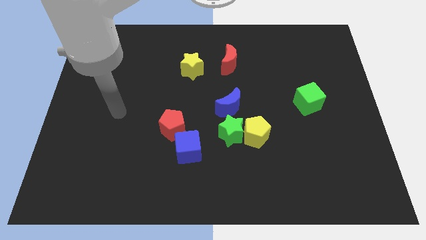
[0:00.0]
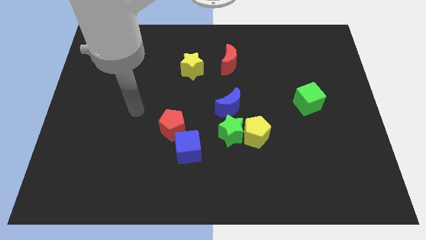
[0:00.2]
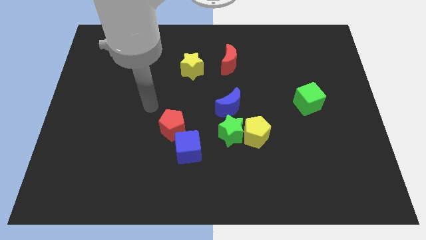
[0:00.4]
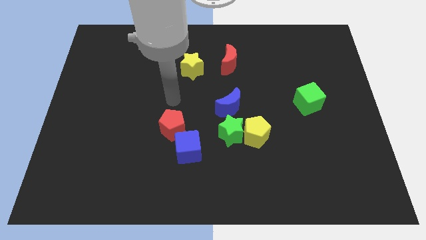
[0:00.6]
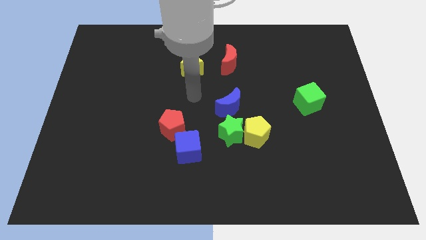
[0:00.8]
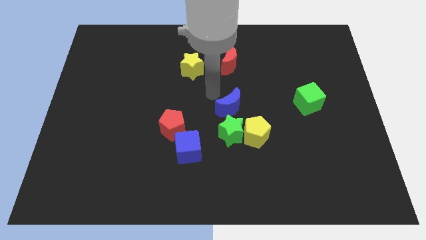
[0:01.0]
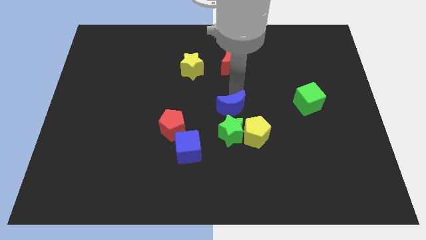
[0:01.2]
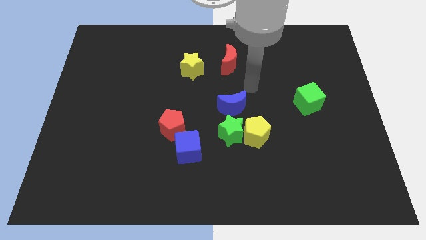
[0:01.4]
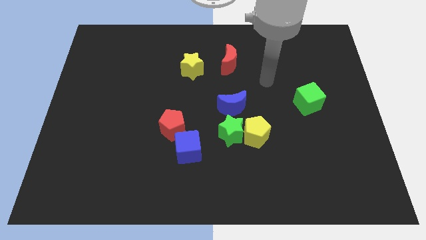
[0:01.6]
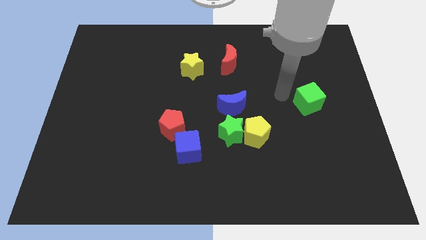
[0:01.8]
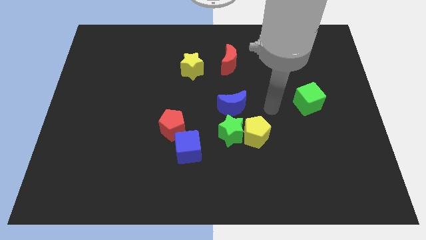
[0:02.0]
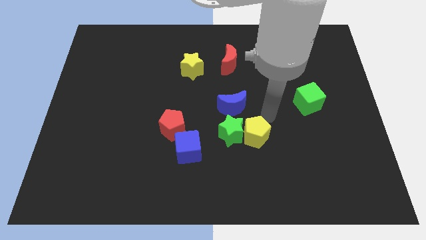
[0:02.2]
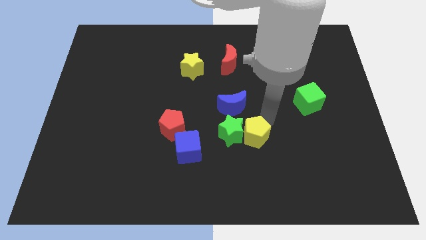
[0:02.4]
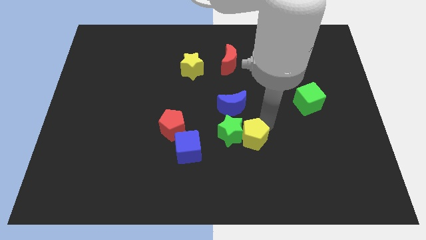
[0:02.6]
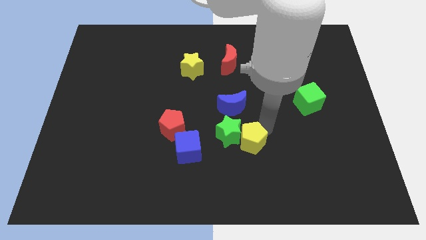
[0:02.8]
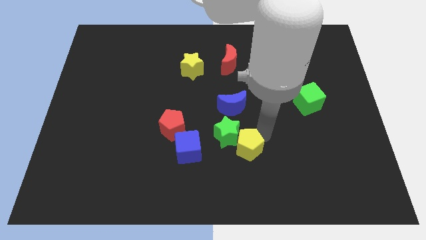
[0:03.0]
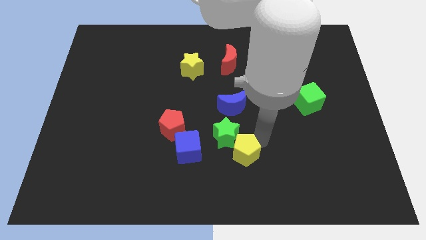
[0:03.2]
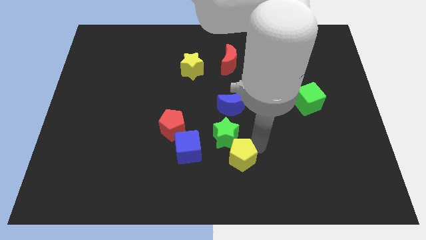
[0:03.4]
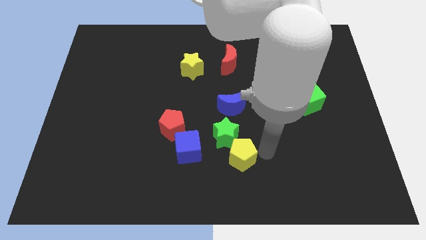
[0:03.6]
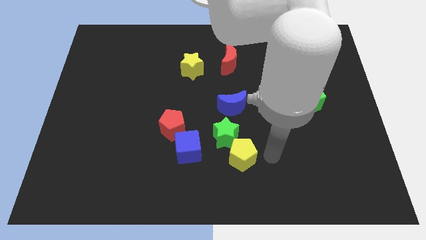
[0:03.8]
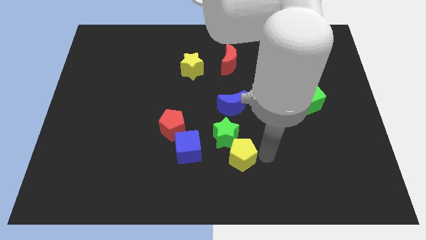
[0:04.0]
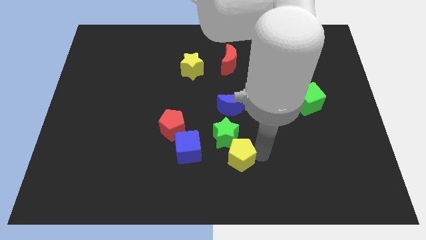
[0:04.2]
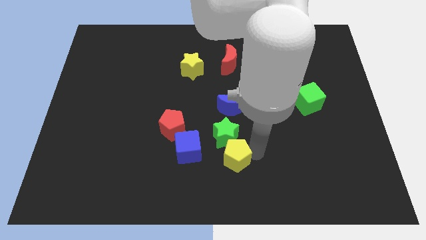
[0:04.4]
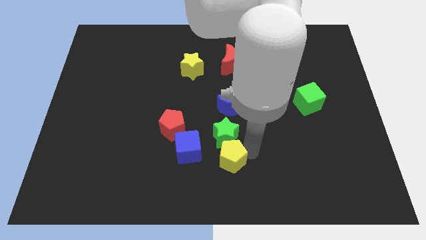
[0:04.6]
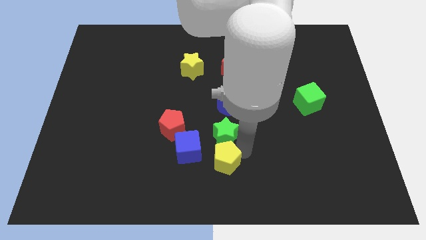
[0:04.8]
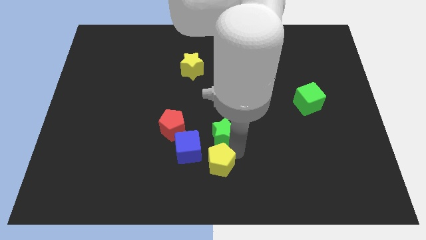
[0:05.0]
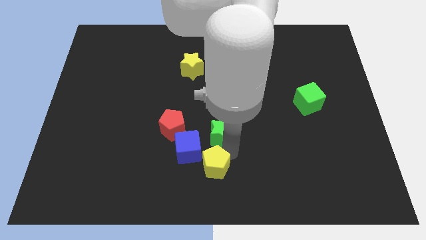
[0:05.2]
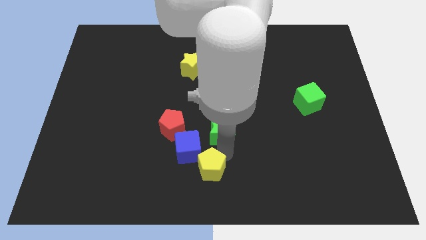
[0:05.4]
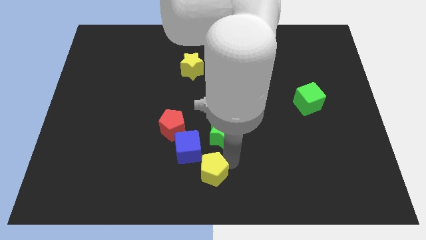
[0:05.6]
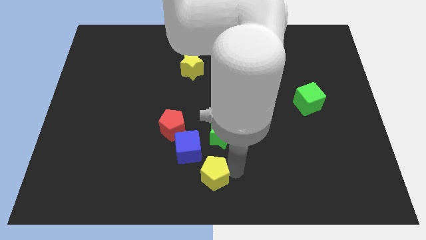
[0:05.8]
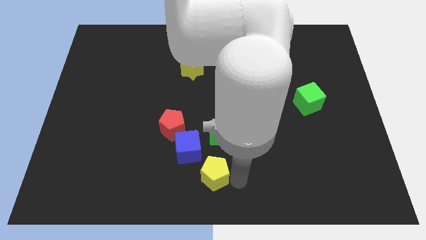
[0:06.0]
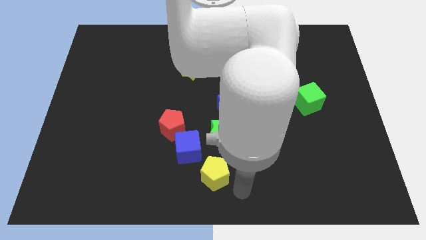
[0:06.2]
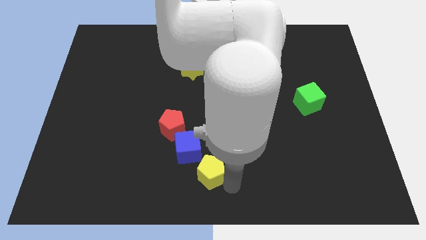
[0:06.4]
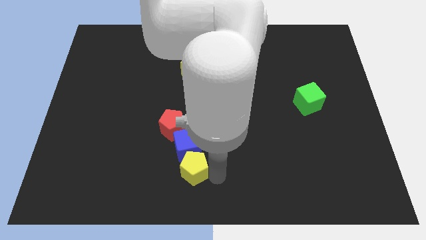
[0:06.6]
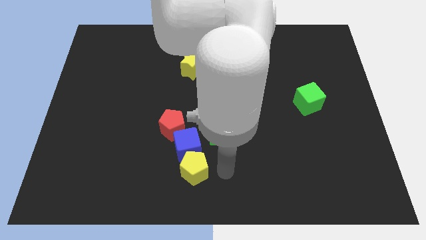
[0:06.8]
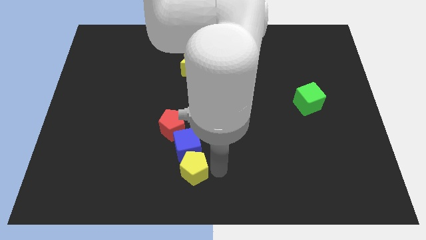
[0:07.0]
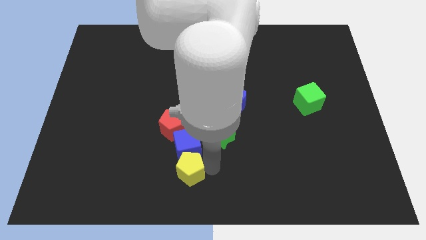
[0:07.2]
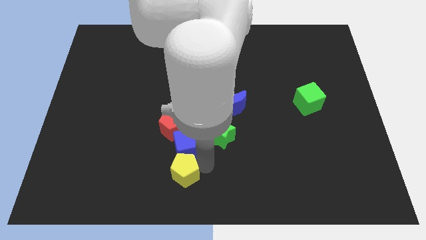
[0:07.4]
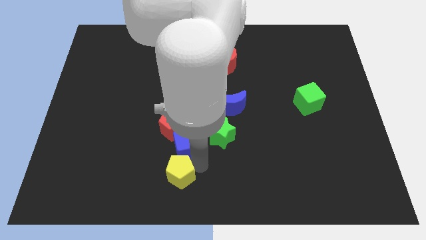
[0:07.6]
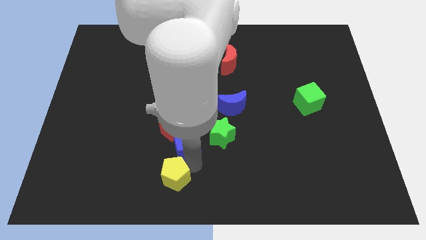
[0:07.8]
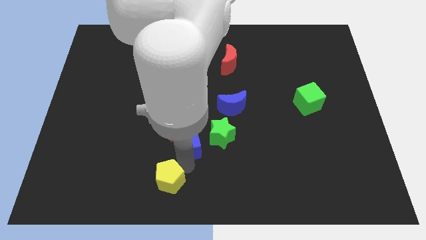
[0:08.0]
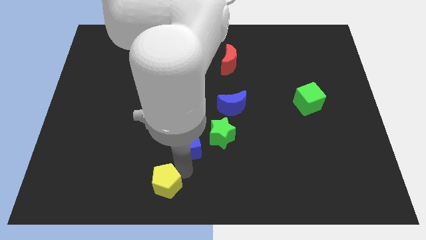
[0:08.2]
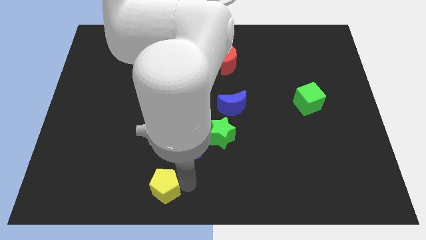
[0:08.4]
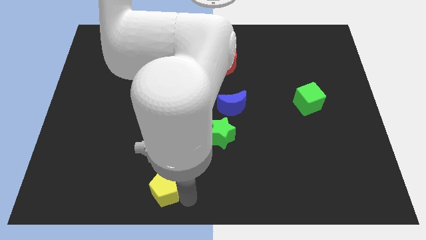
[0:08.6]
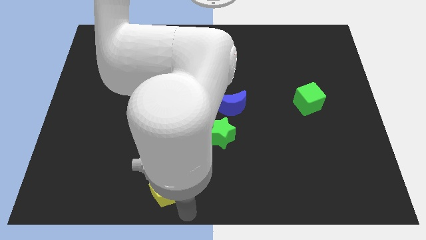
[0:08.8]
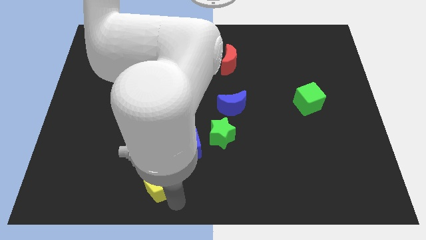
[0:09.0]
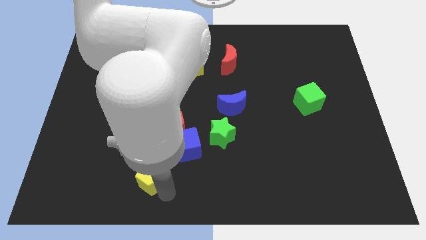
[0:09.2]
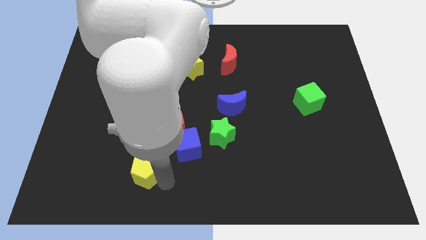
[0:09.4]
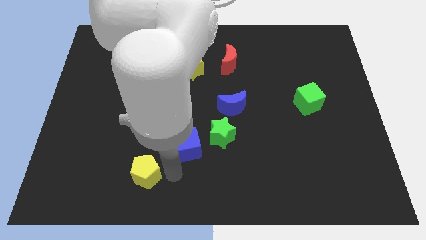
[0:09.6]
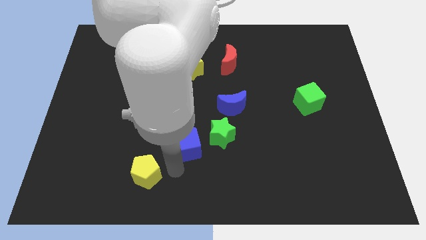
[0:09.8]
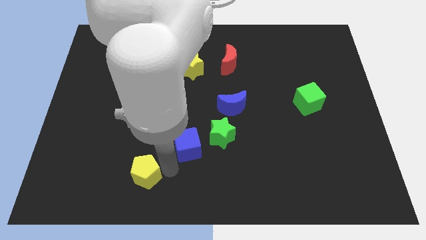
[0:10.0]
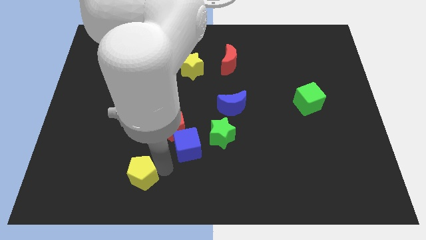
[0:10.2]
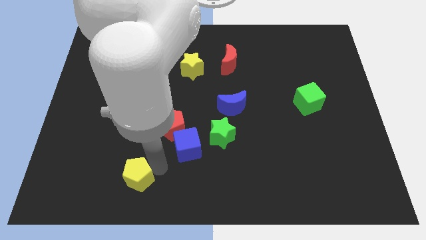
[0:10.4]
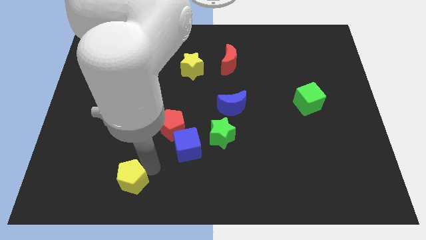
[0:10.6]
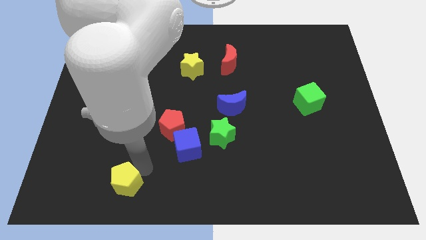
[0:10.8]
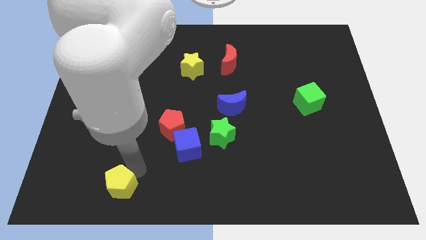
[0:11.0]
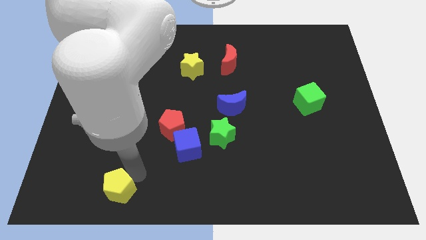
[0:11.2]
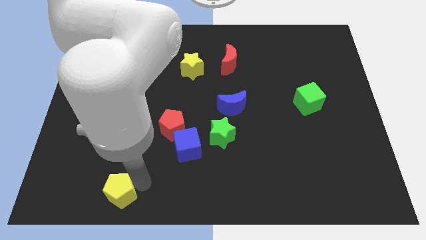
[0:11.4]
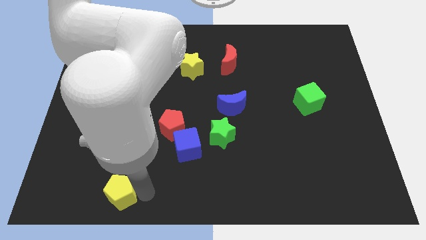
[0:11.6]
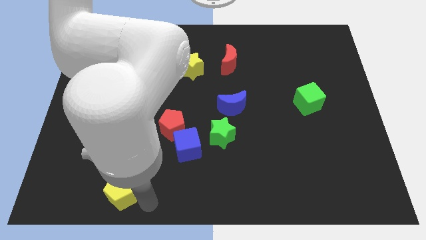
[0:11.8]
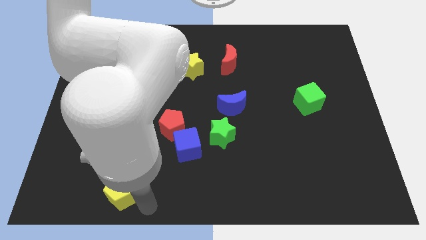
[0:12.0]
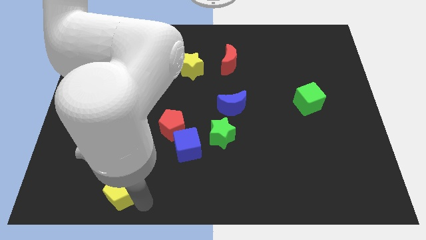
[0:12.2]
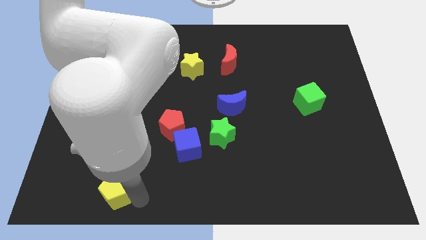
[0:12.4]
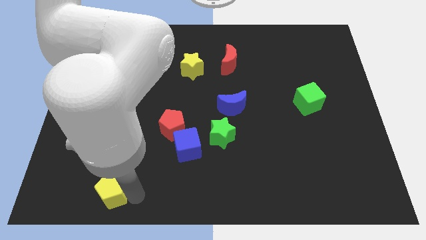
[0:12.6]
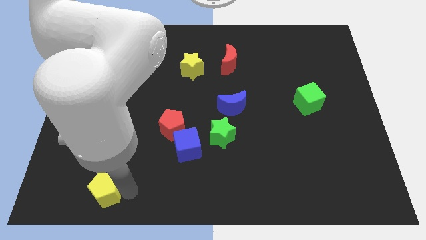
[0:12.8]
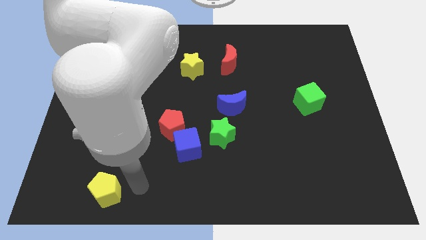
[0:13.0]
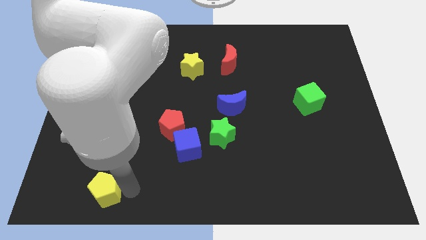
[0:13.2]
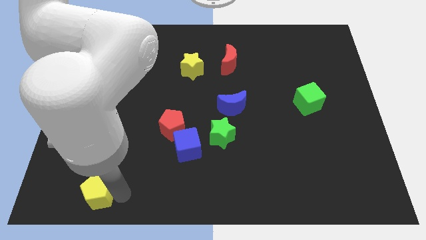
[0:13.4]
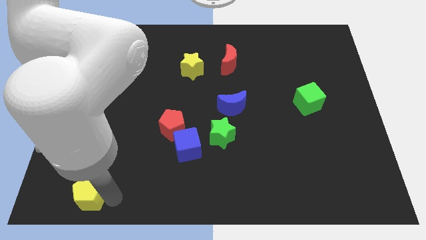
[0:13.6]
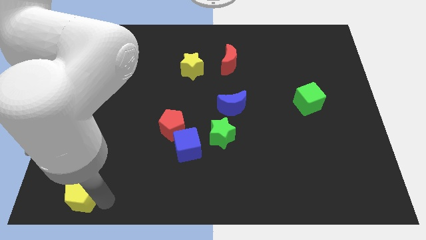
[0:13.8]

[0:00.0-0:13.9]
put the yellow pentagon to the bottom left corner

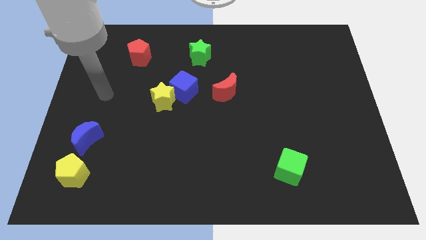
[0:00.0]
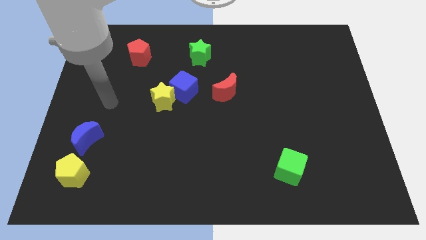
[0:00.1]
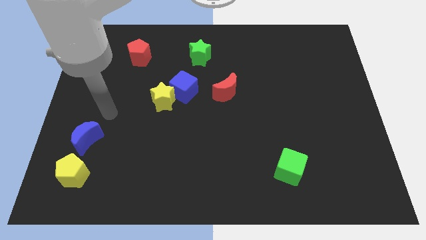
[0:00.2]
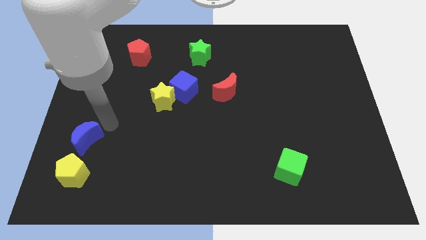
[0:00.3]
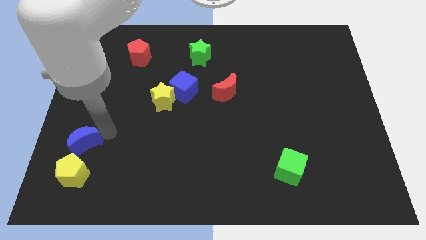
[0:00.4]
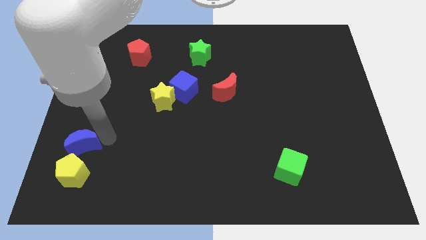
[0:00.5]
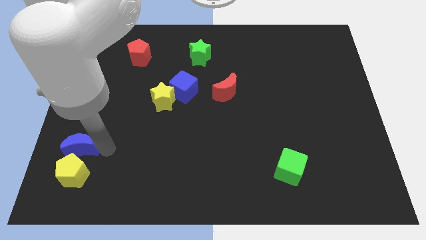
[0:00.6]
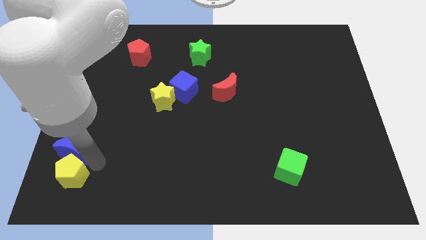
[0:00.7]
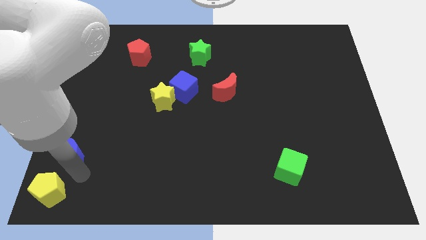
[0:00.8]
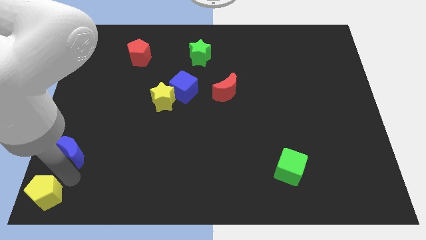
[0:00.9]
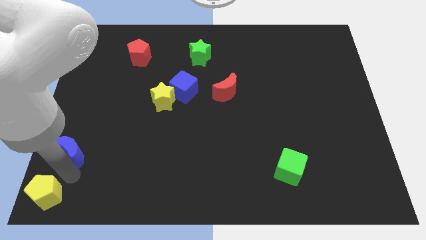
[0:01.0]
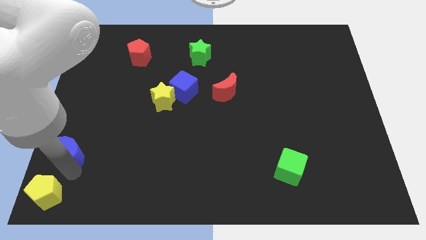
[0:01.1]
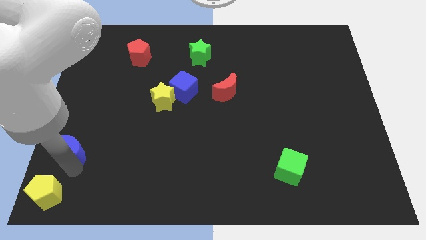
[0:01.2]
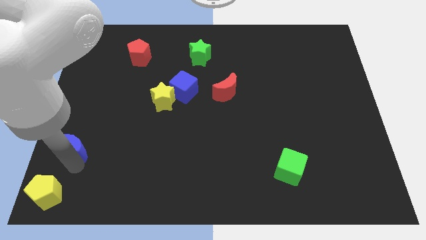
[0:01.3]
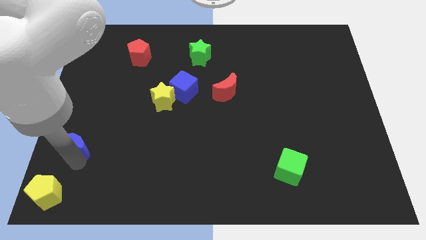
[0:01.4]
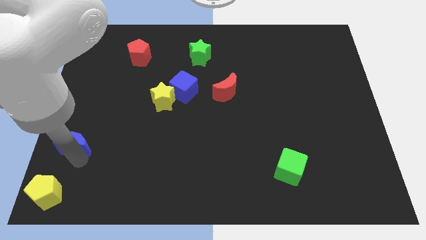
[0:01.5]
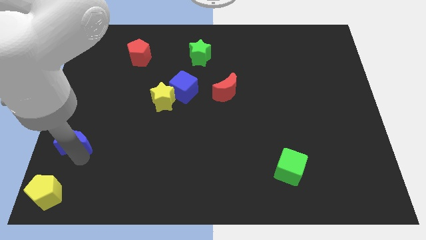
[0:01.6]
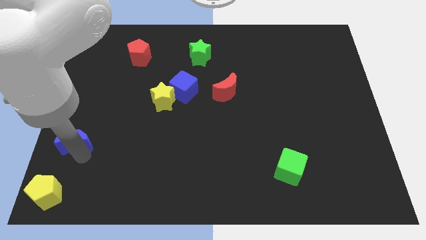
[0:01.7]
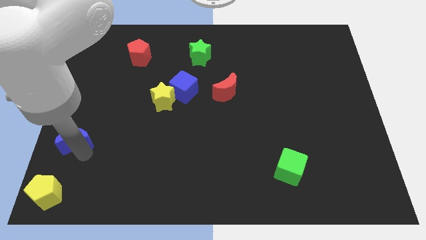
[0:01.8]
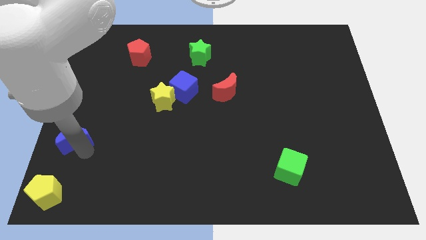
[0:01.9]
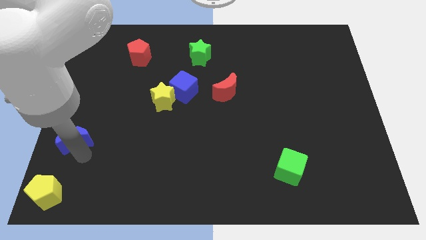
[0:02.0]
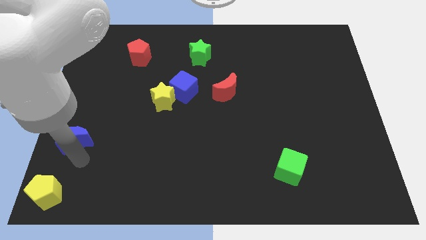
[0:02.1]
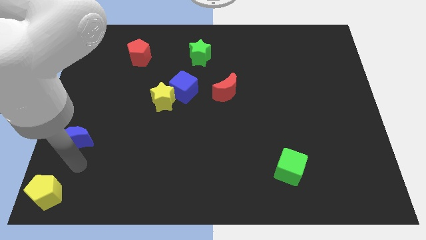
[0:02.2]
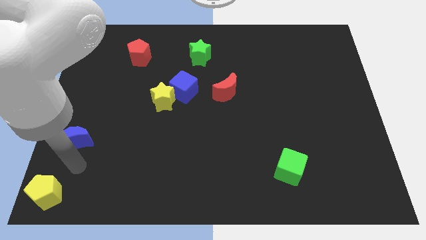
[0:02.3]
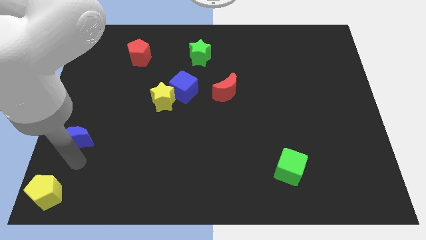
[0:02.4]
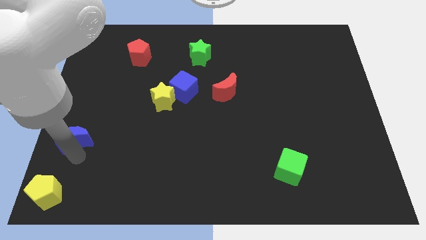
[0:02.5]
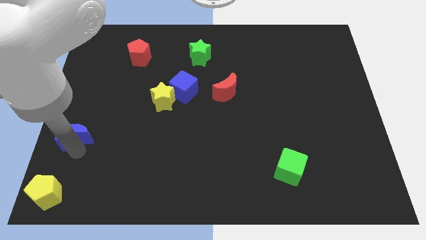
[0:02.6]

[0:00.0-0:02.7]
put the blue moon to the left side of the board
